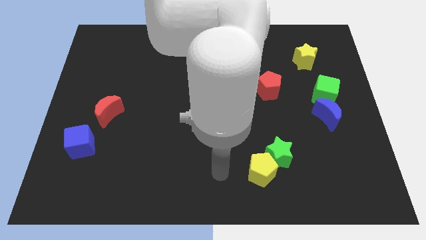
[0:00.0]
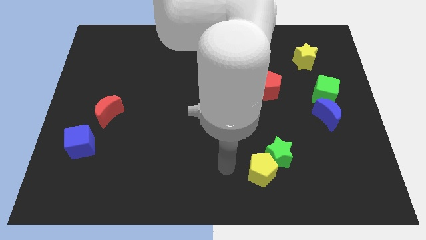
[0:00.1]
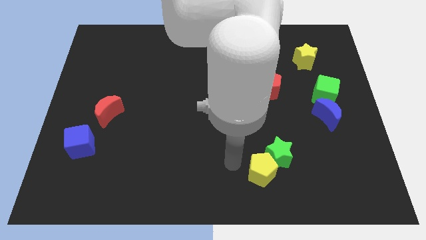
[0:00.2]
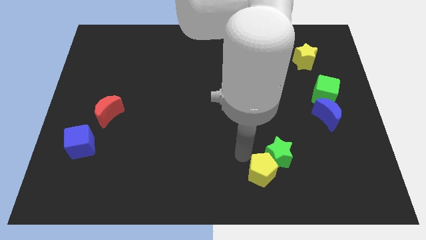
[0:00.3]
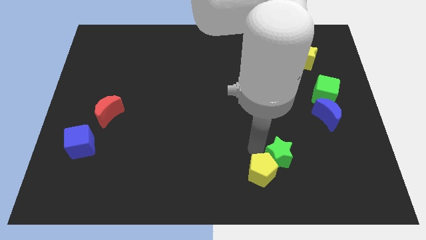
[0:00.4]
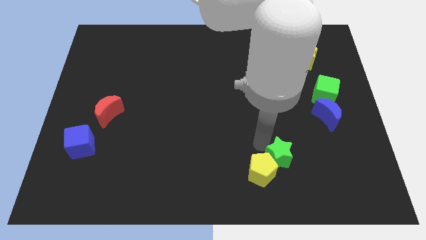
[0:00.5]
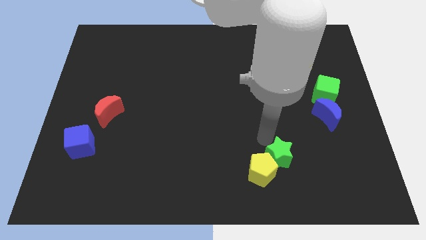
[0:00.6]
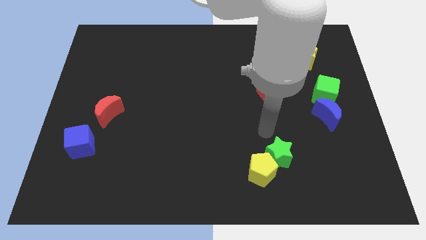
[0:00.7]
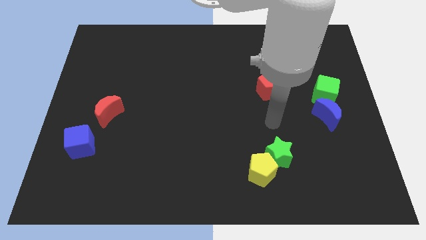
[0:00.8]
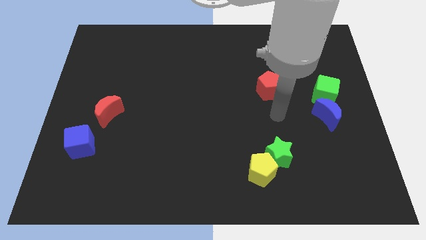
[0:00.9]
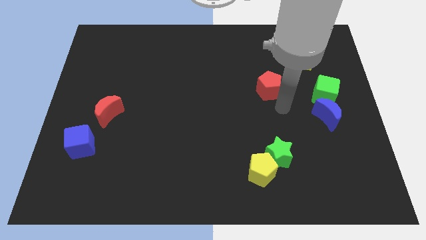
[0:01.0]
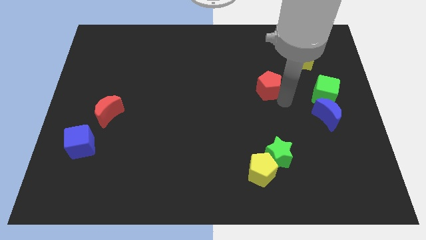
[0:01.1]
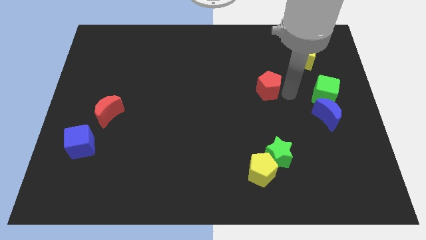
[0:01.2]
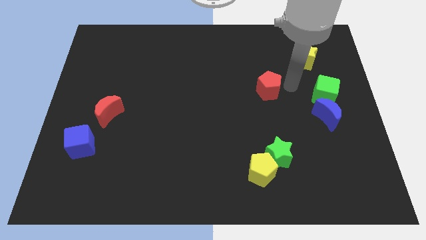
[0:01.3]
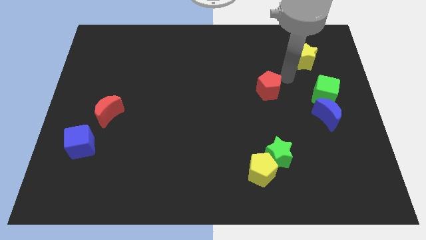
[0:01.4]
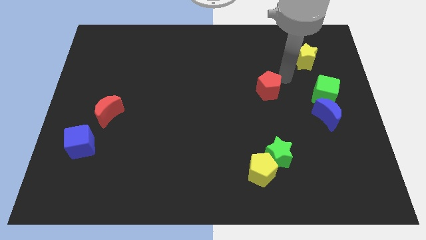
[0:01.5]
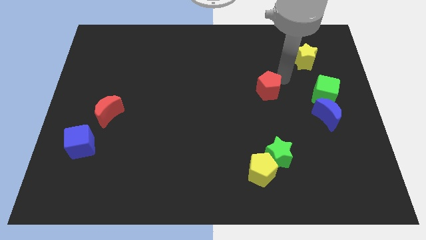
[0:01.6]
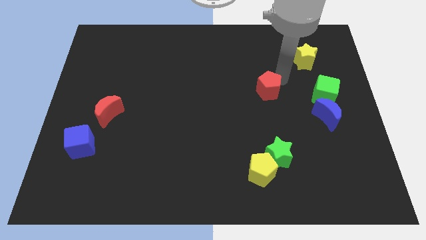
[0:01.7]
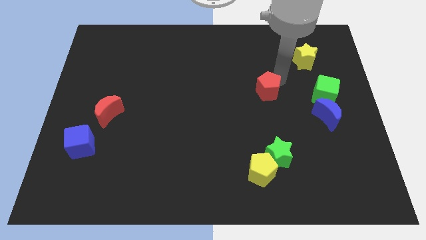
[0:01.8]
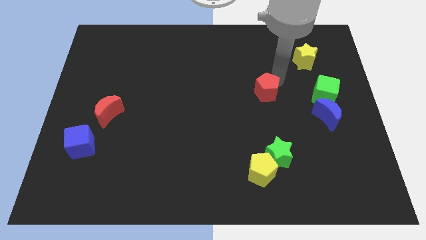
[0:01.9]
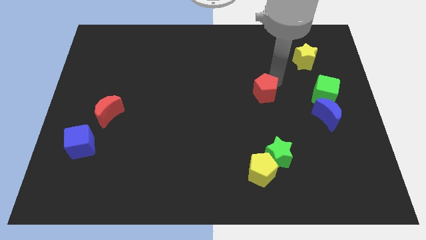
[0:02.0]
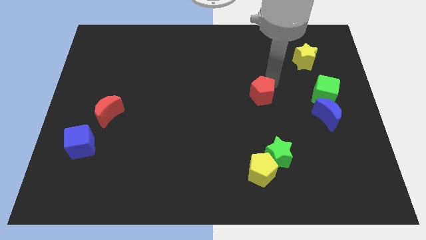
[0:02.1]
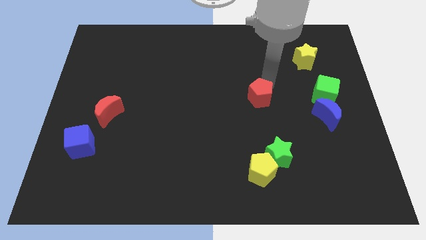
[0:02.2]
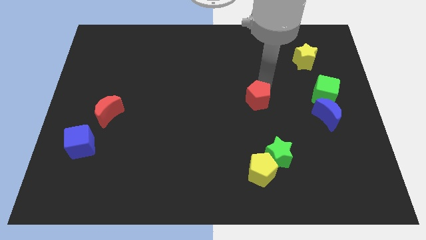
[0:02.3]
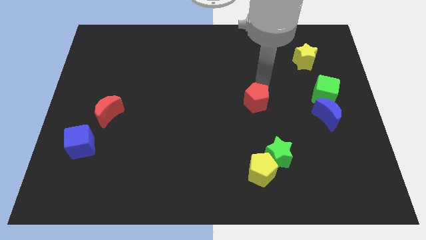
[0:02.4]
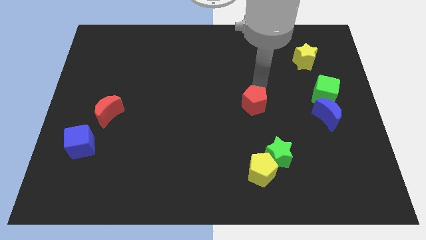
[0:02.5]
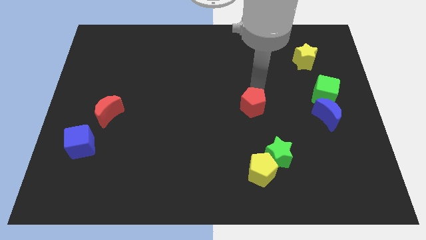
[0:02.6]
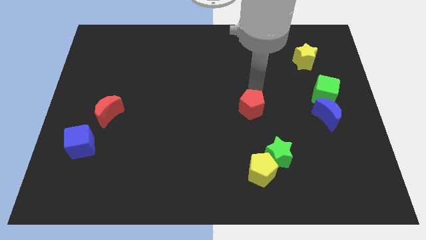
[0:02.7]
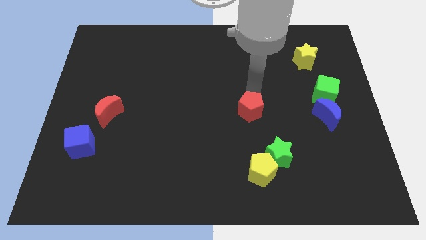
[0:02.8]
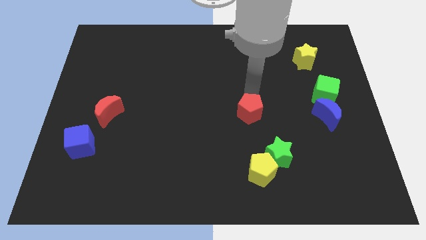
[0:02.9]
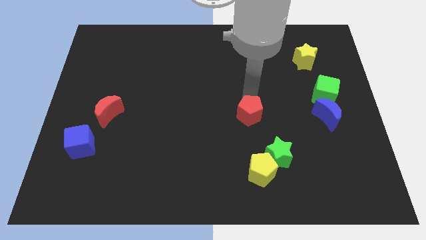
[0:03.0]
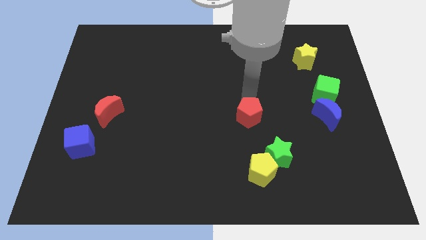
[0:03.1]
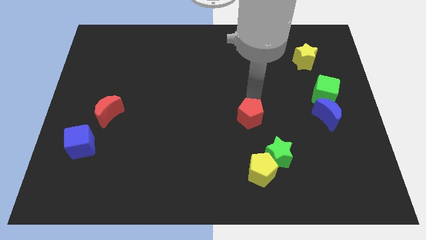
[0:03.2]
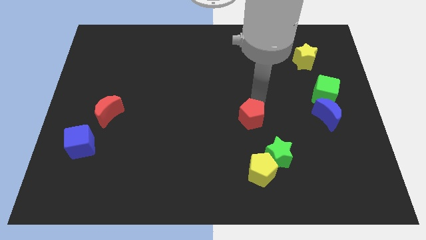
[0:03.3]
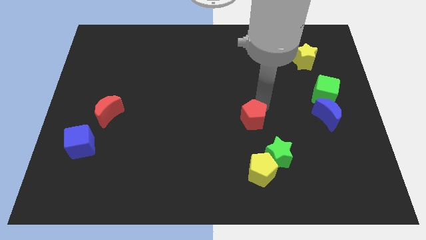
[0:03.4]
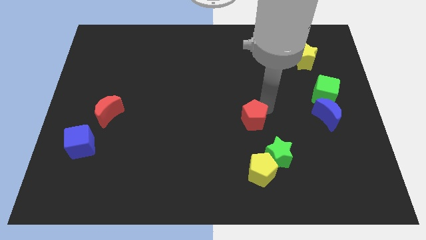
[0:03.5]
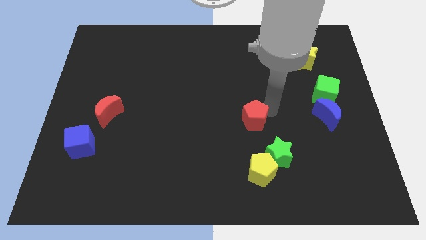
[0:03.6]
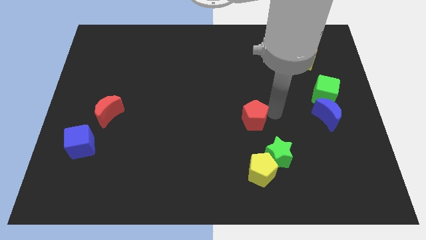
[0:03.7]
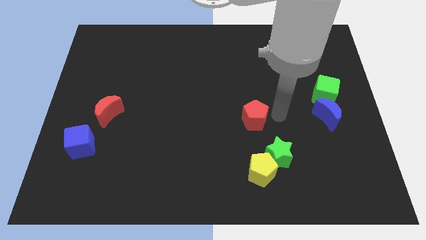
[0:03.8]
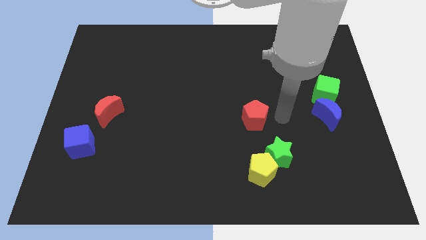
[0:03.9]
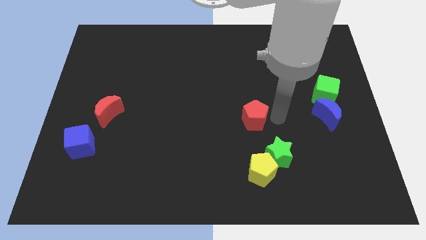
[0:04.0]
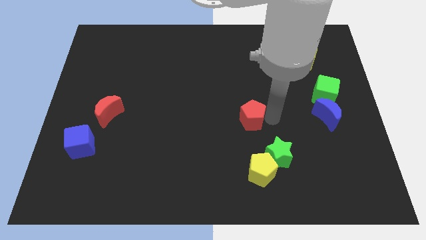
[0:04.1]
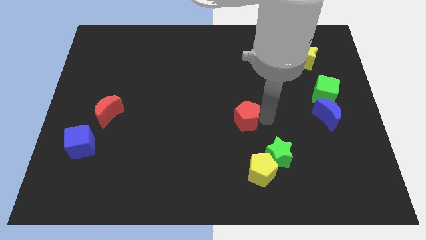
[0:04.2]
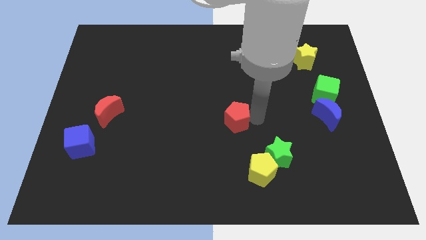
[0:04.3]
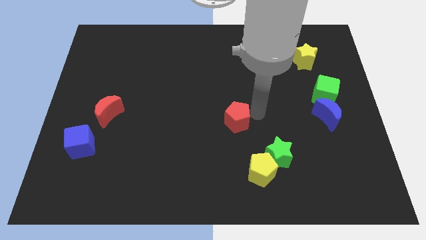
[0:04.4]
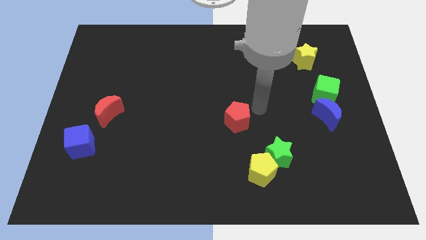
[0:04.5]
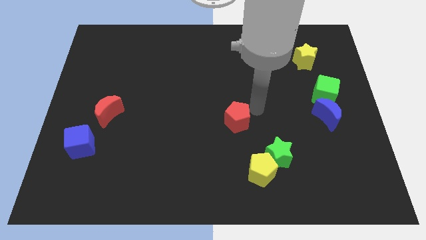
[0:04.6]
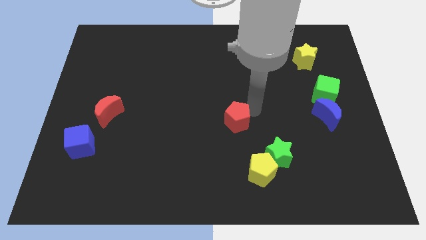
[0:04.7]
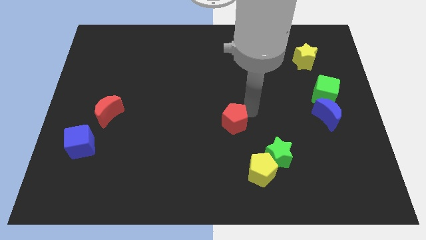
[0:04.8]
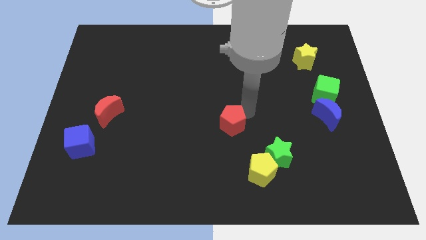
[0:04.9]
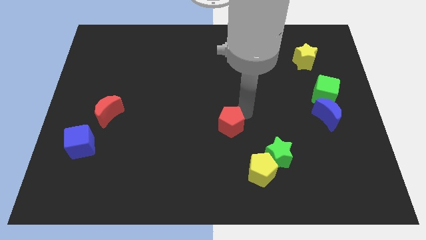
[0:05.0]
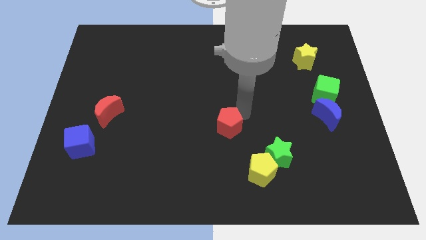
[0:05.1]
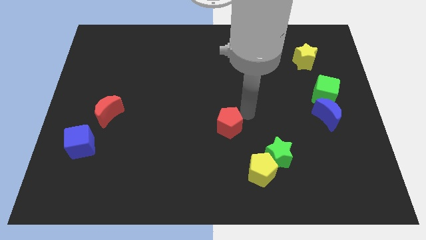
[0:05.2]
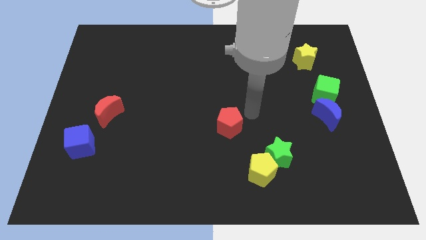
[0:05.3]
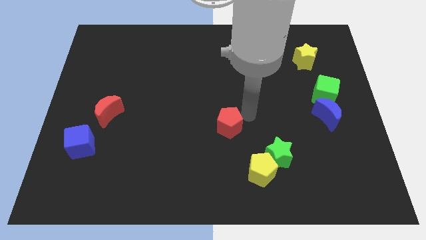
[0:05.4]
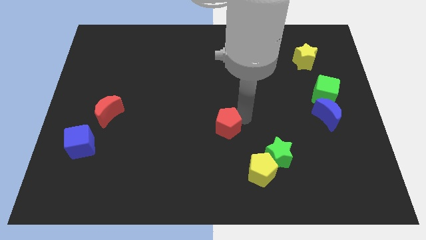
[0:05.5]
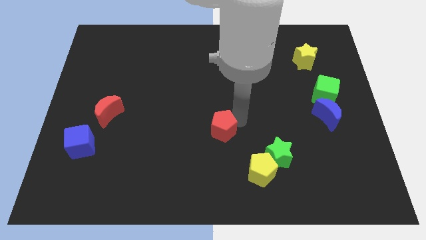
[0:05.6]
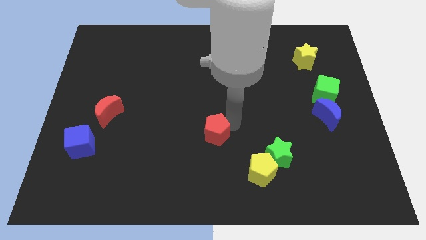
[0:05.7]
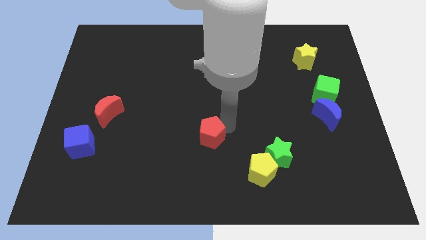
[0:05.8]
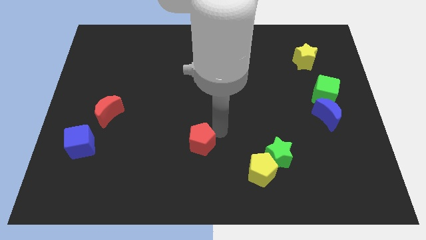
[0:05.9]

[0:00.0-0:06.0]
push the red pentagon down and left diagonally

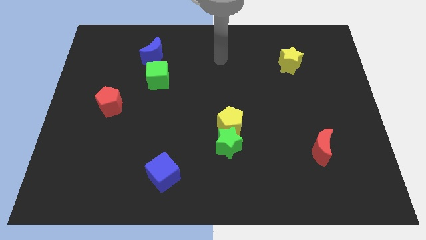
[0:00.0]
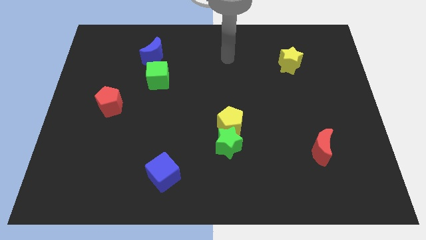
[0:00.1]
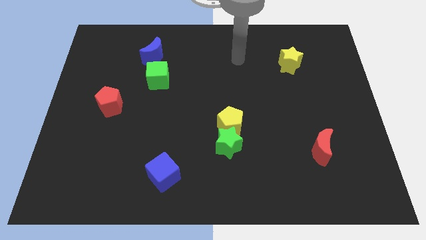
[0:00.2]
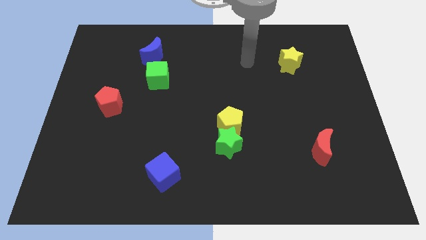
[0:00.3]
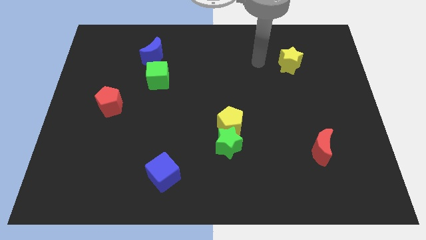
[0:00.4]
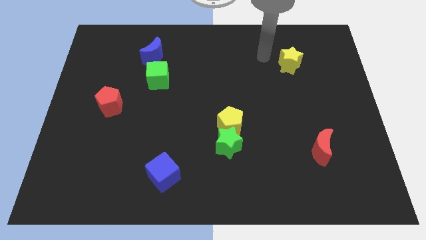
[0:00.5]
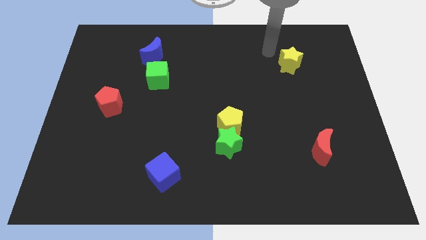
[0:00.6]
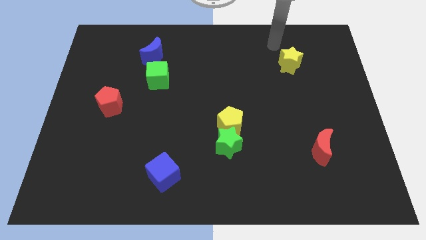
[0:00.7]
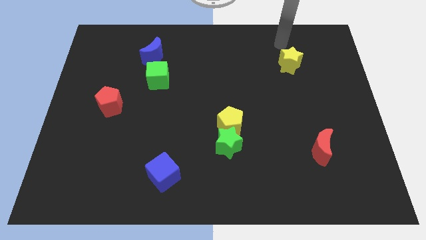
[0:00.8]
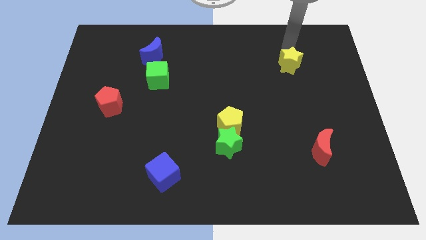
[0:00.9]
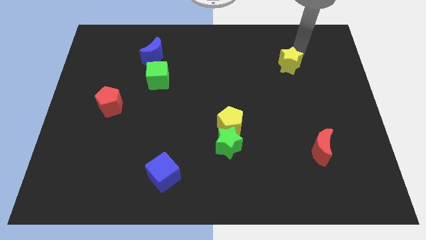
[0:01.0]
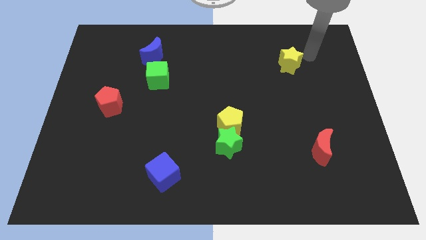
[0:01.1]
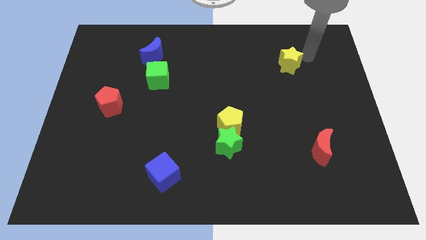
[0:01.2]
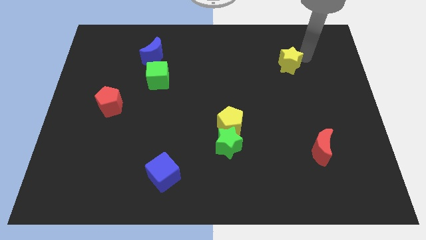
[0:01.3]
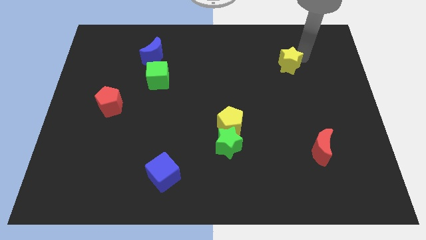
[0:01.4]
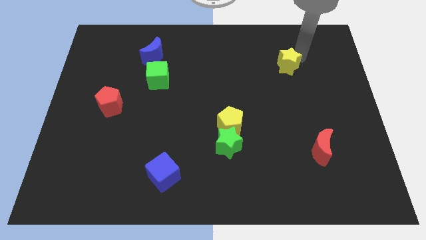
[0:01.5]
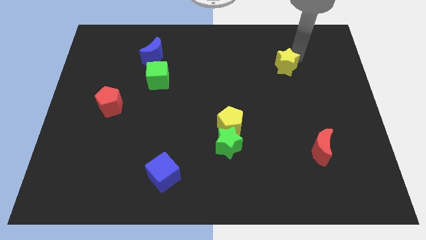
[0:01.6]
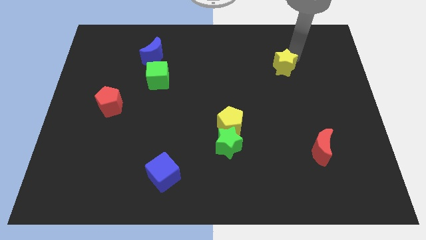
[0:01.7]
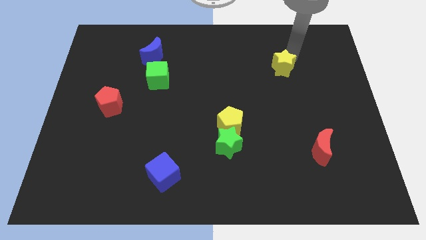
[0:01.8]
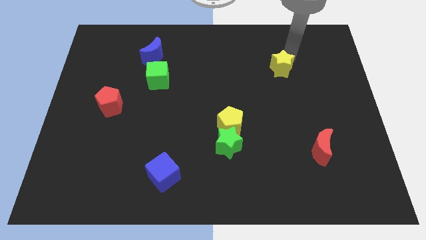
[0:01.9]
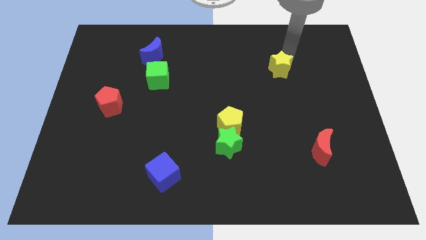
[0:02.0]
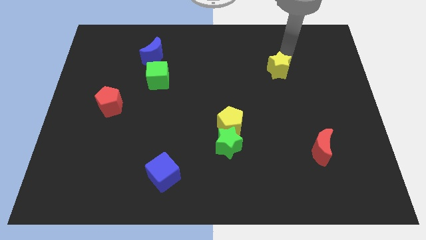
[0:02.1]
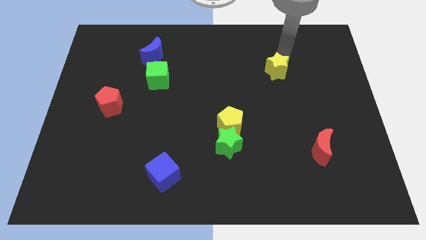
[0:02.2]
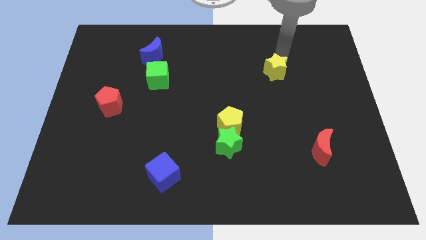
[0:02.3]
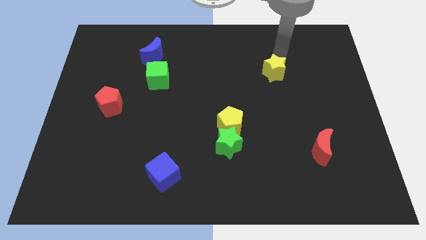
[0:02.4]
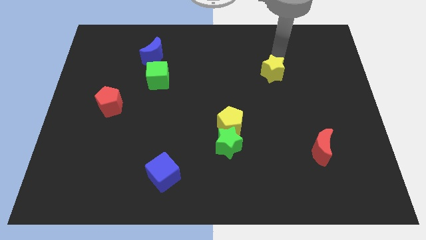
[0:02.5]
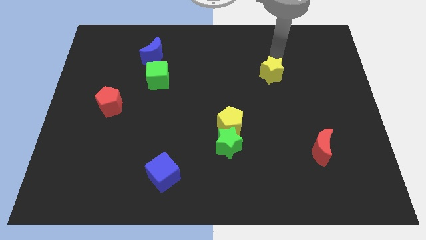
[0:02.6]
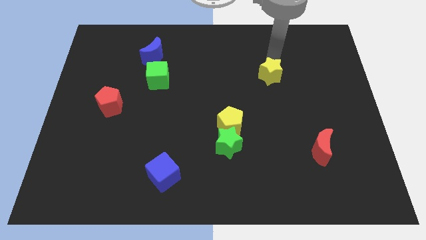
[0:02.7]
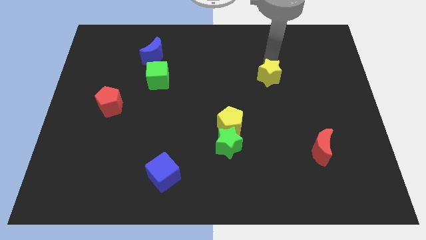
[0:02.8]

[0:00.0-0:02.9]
slightly push the yellow star down and then left
